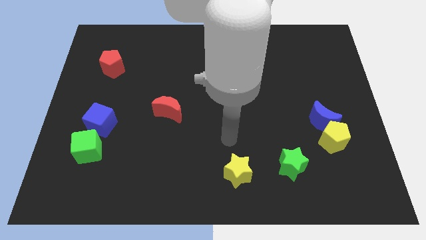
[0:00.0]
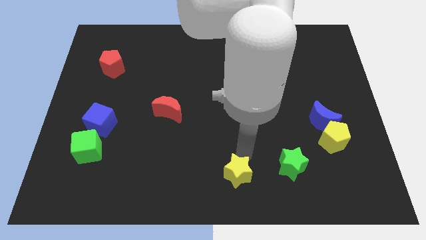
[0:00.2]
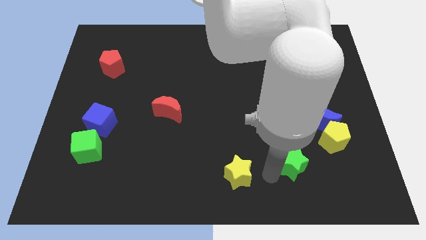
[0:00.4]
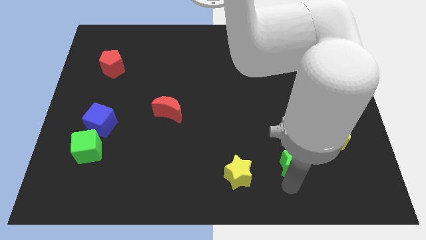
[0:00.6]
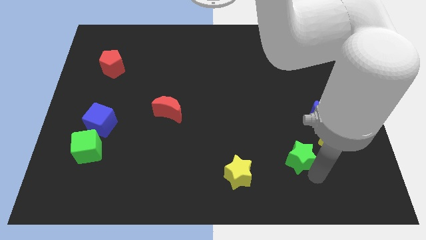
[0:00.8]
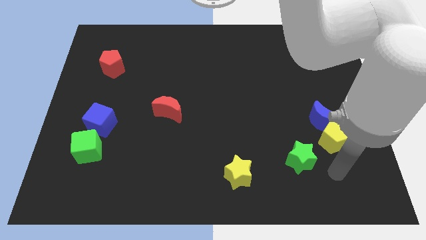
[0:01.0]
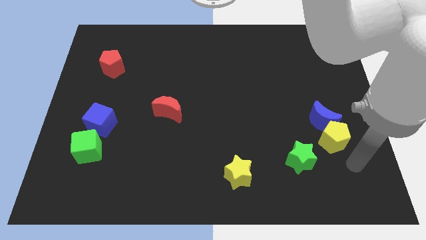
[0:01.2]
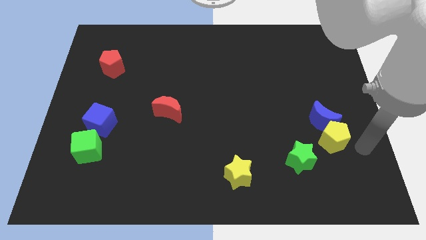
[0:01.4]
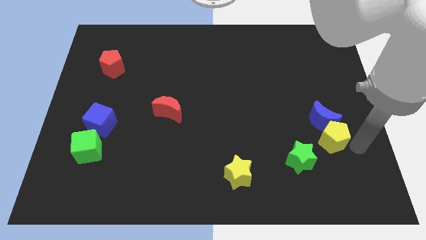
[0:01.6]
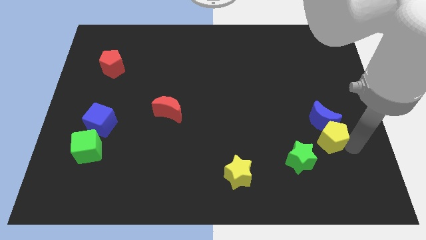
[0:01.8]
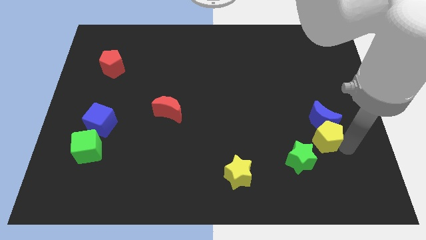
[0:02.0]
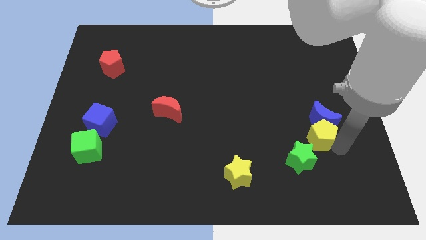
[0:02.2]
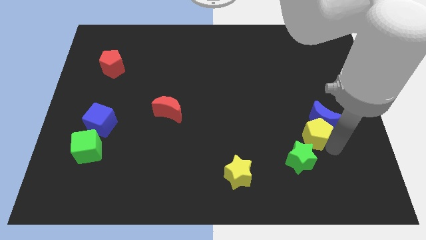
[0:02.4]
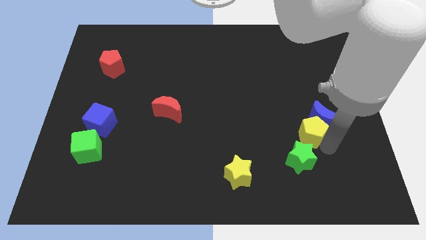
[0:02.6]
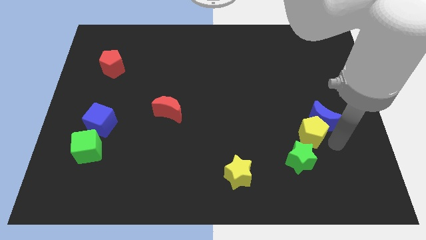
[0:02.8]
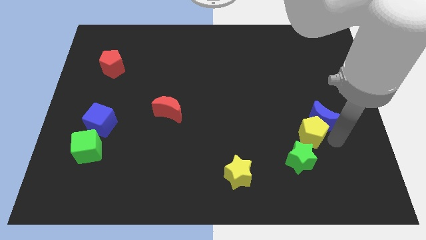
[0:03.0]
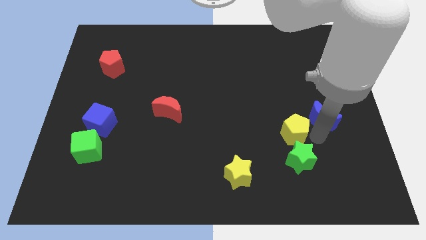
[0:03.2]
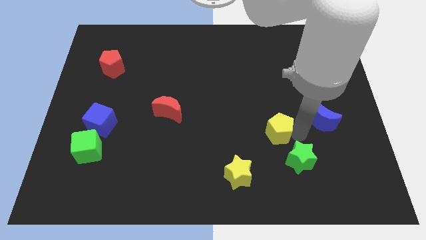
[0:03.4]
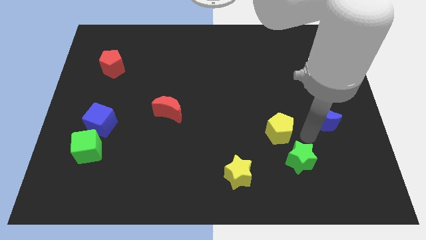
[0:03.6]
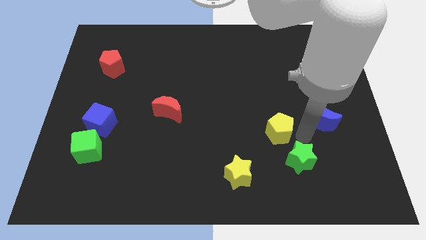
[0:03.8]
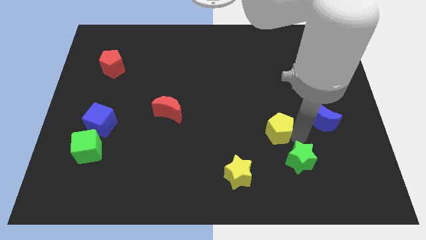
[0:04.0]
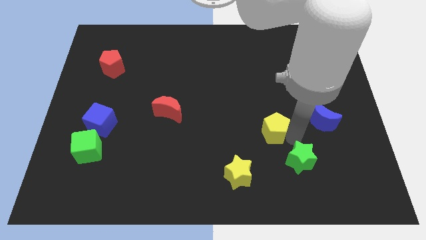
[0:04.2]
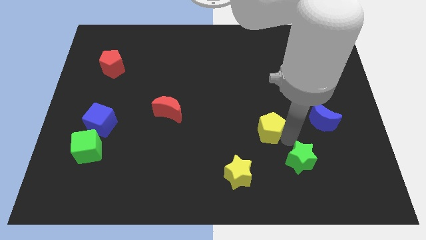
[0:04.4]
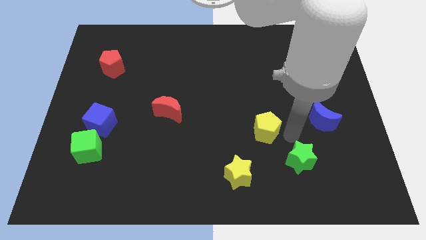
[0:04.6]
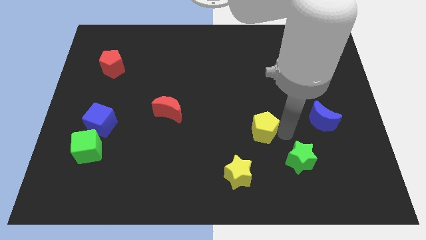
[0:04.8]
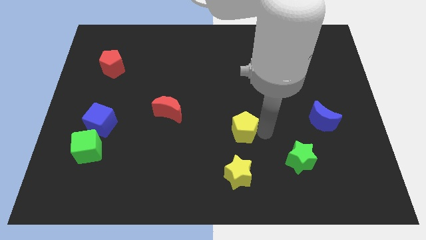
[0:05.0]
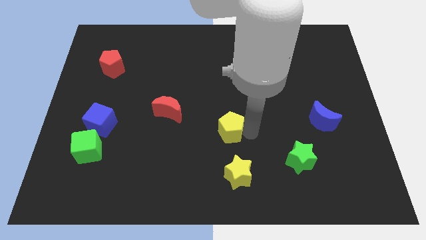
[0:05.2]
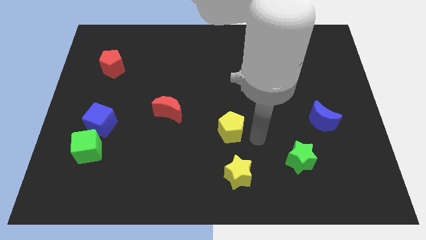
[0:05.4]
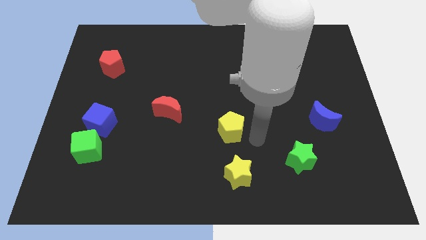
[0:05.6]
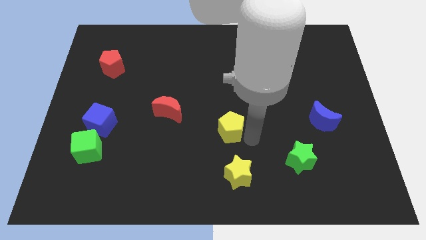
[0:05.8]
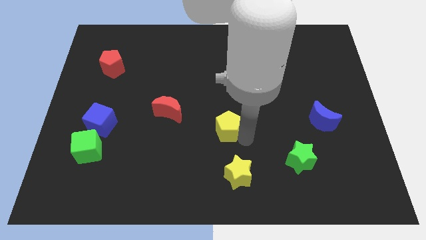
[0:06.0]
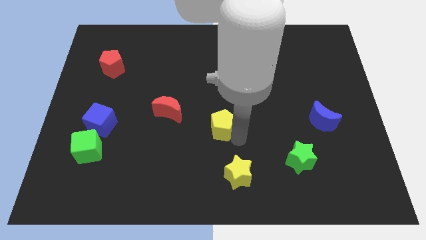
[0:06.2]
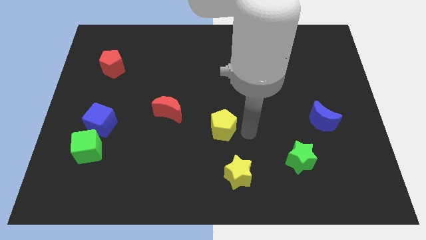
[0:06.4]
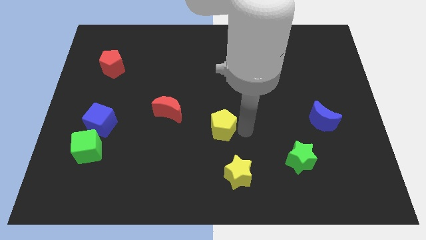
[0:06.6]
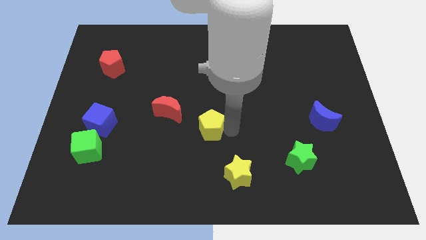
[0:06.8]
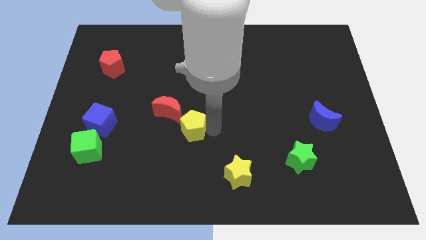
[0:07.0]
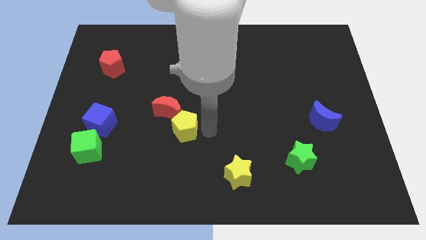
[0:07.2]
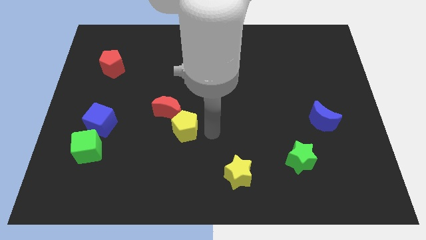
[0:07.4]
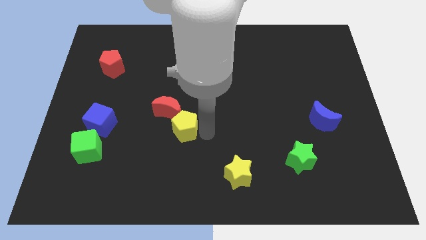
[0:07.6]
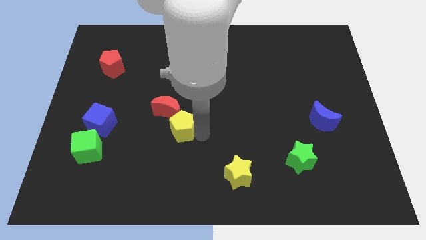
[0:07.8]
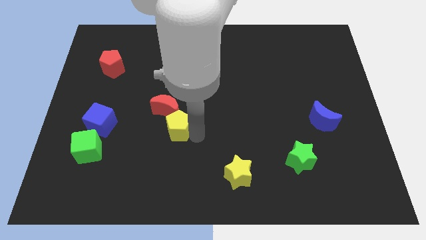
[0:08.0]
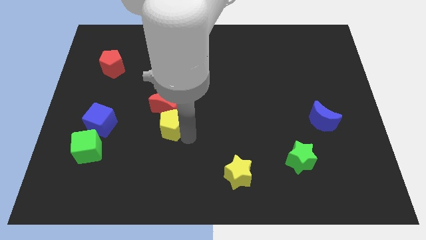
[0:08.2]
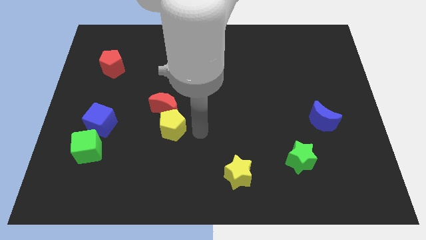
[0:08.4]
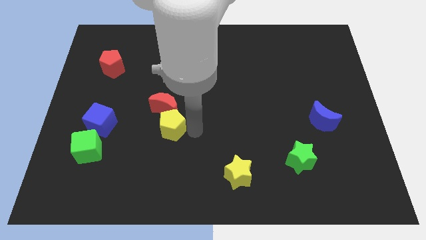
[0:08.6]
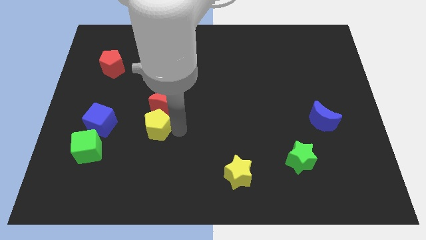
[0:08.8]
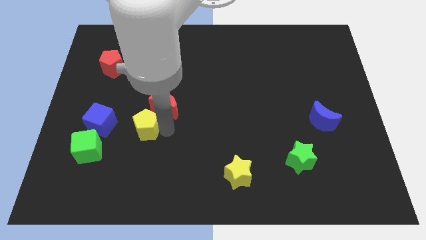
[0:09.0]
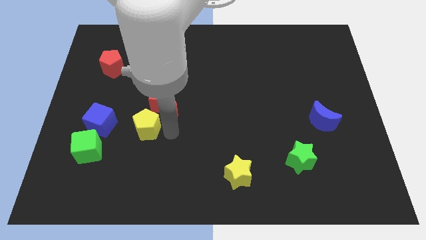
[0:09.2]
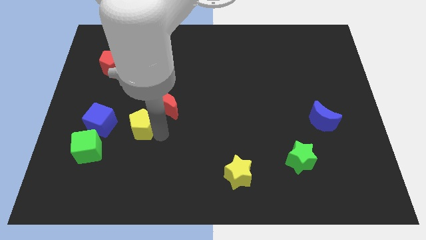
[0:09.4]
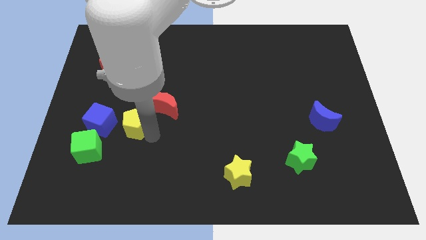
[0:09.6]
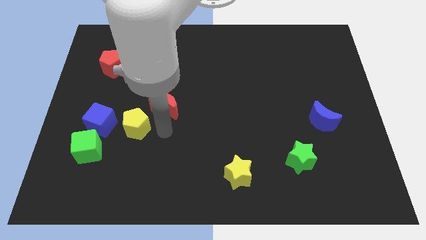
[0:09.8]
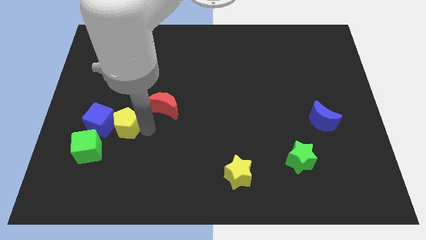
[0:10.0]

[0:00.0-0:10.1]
slide the yellow pentagon to the blue cube

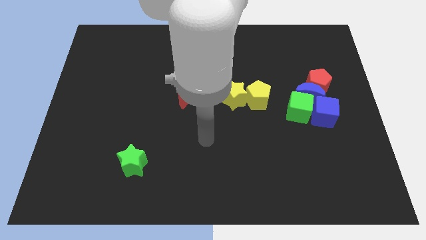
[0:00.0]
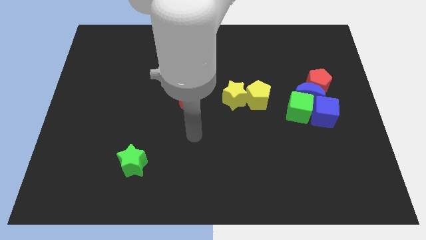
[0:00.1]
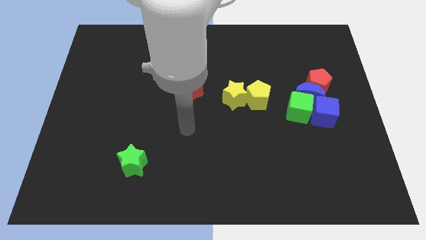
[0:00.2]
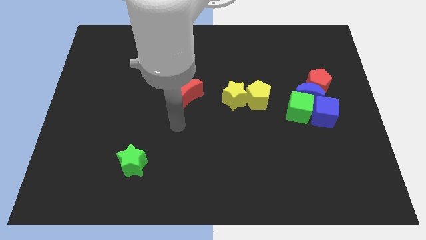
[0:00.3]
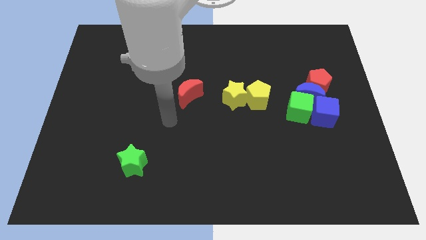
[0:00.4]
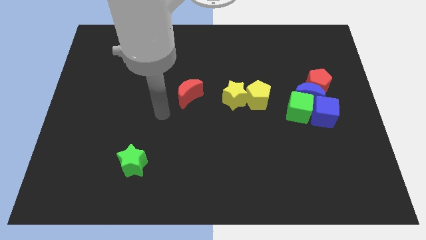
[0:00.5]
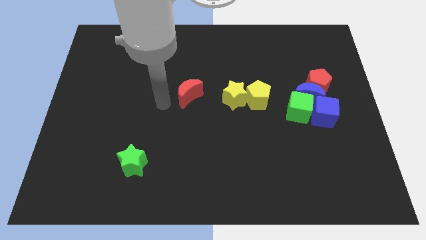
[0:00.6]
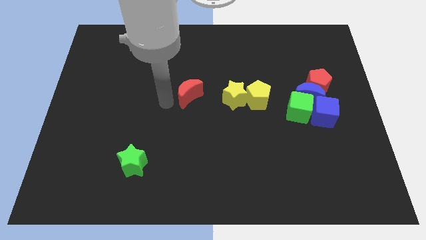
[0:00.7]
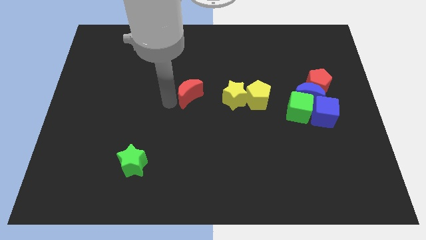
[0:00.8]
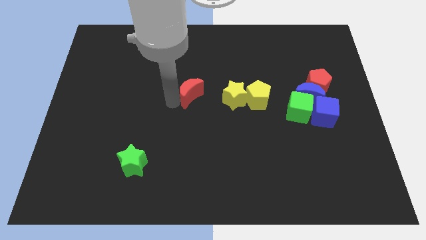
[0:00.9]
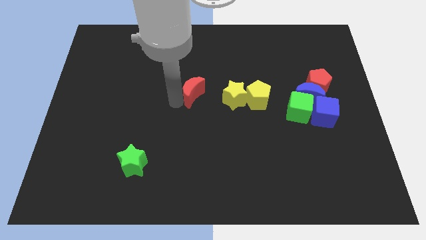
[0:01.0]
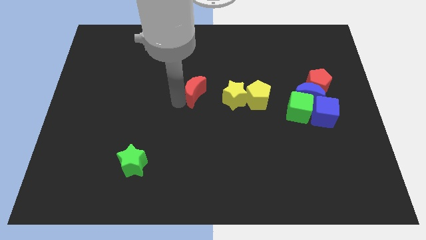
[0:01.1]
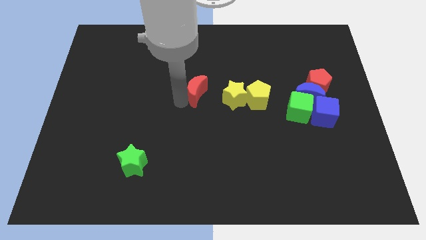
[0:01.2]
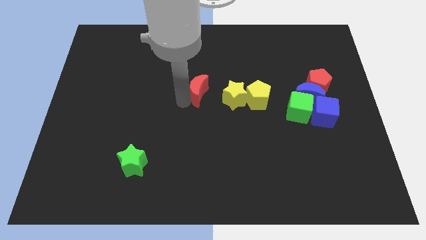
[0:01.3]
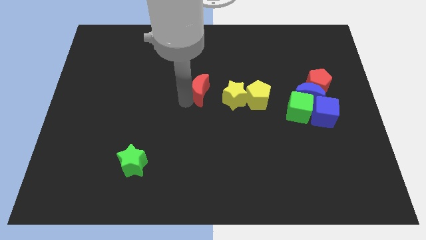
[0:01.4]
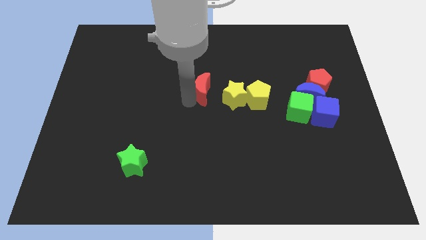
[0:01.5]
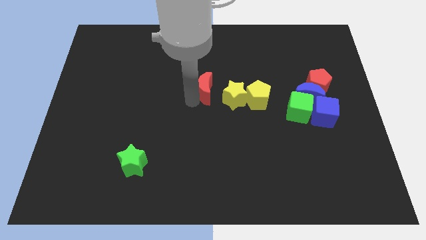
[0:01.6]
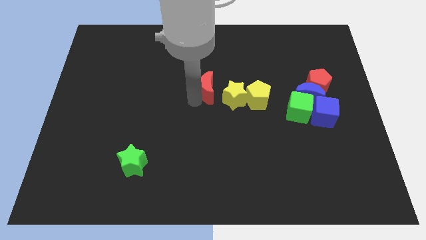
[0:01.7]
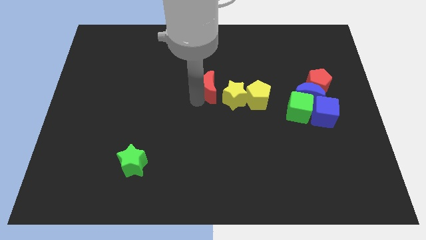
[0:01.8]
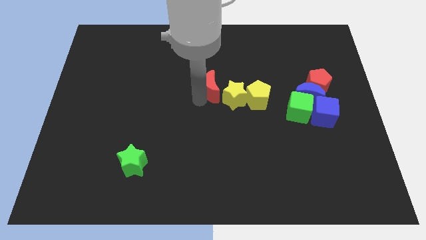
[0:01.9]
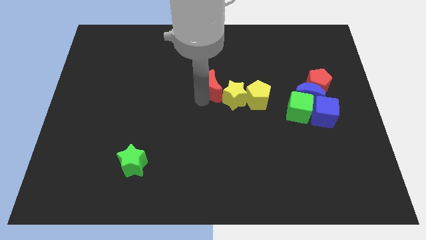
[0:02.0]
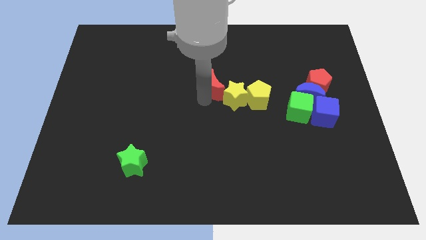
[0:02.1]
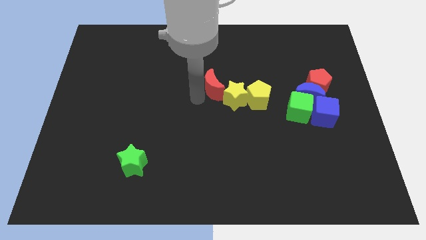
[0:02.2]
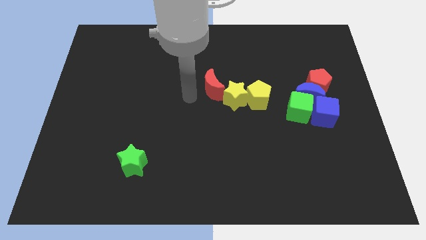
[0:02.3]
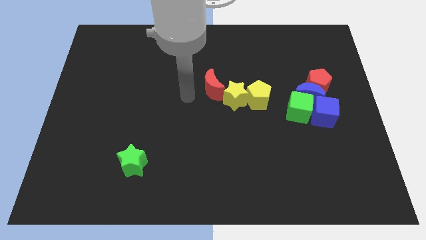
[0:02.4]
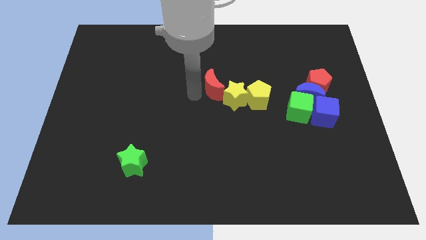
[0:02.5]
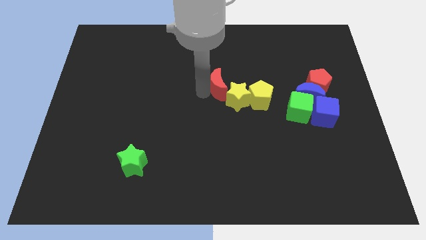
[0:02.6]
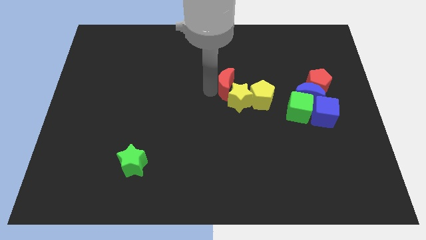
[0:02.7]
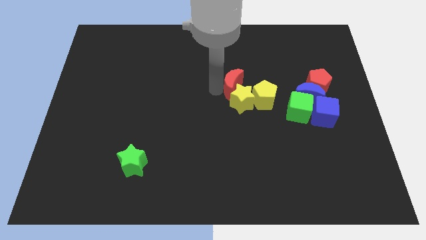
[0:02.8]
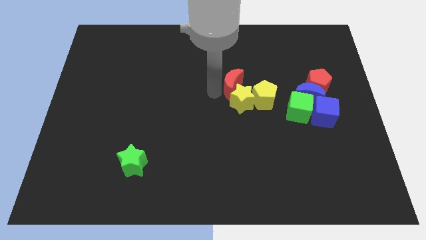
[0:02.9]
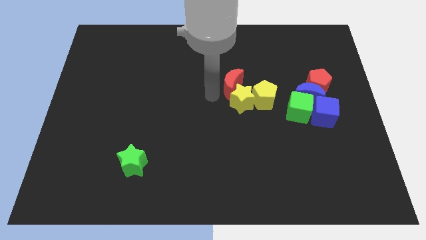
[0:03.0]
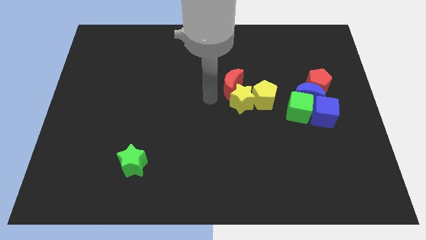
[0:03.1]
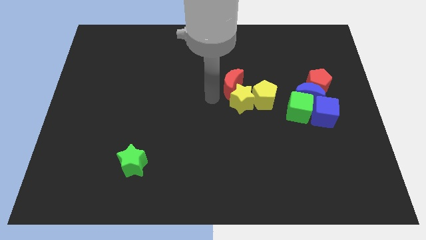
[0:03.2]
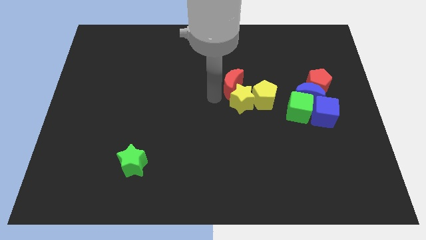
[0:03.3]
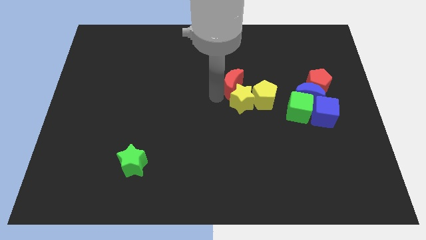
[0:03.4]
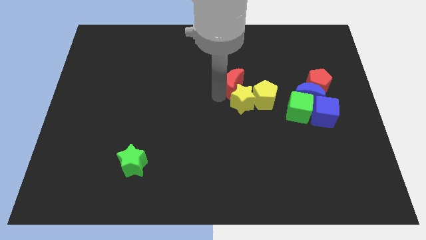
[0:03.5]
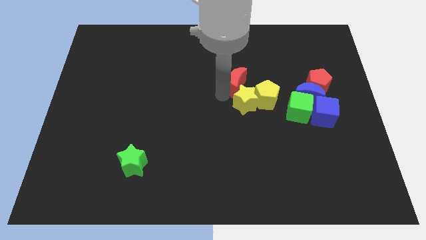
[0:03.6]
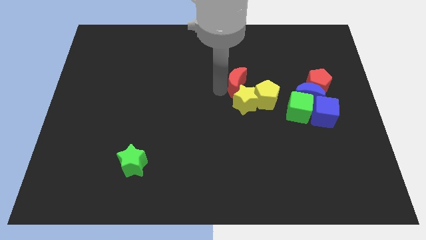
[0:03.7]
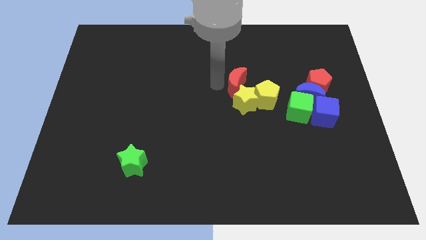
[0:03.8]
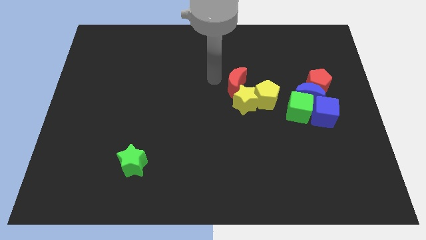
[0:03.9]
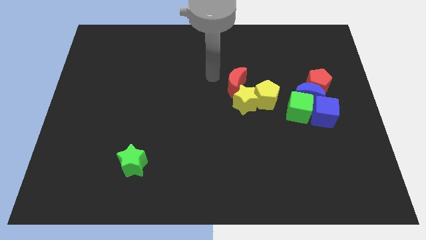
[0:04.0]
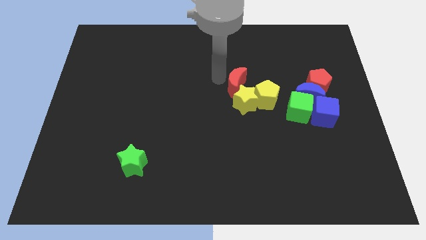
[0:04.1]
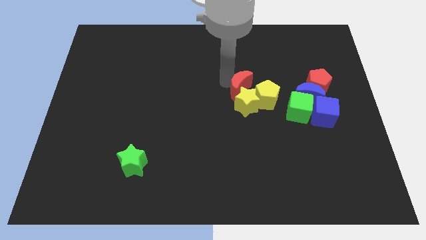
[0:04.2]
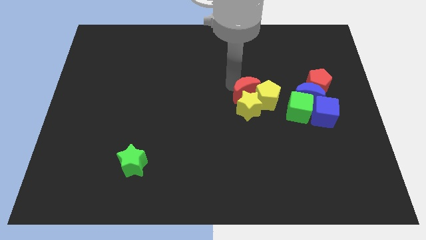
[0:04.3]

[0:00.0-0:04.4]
push the red moon to the yellow pentagon
